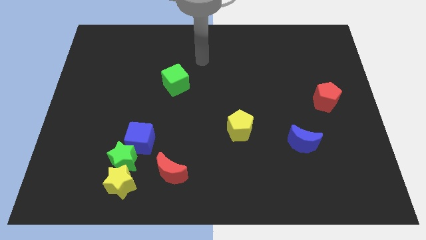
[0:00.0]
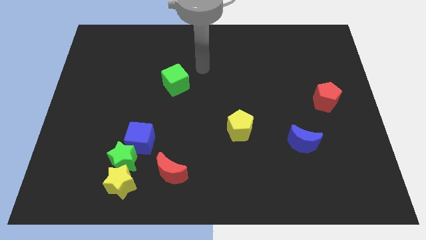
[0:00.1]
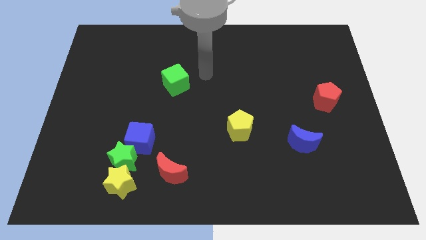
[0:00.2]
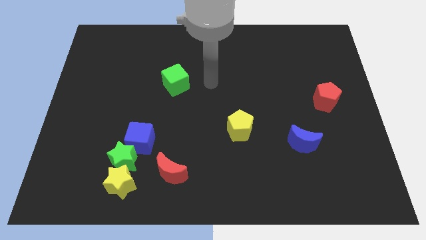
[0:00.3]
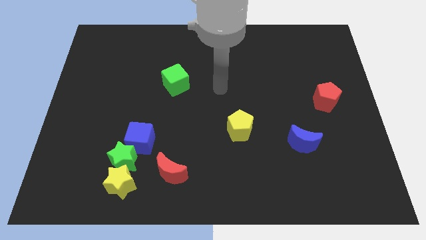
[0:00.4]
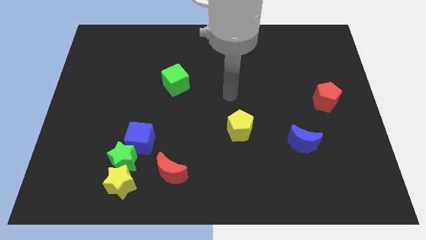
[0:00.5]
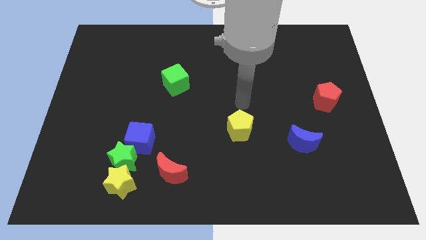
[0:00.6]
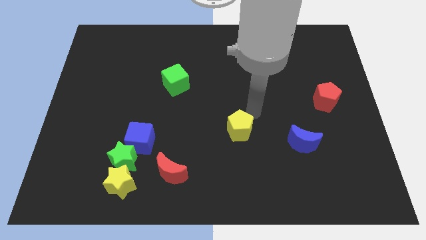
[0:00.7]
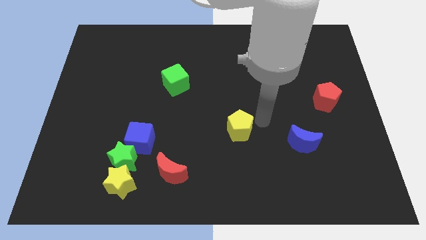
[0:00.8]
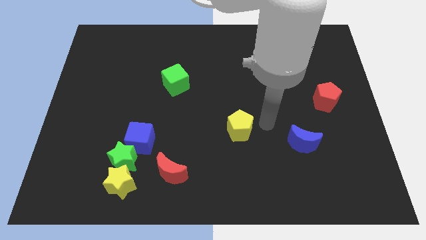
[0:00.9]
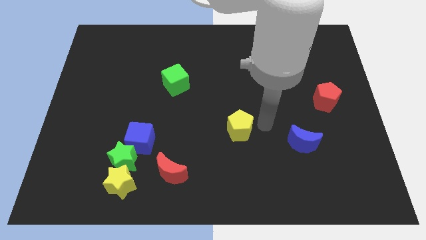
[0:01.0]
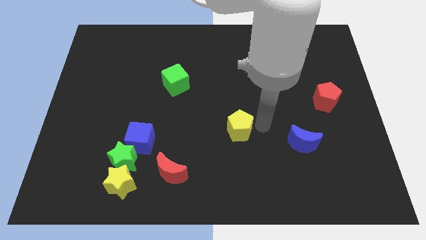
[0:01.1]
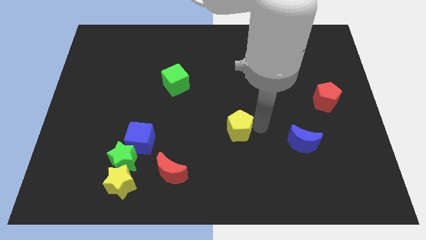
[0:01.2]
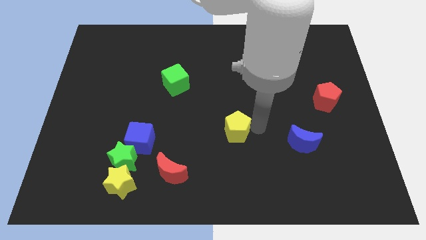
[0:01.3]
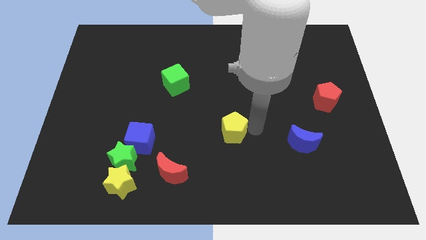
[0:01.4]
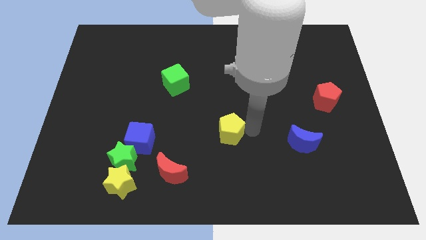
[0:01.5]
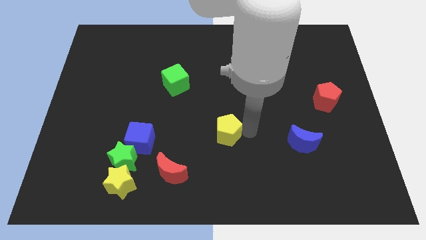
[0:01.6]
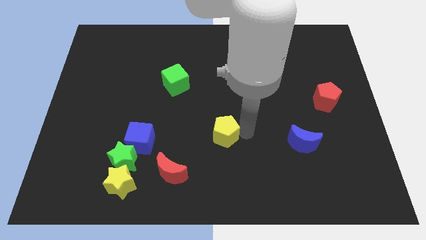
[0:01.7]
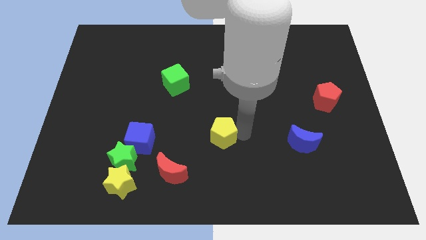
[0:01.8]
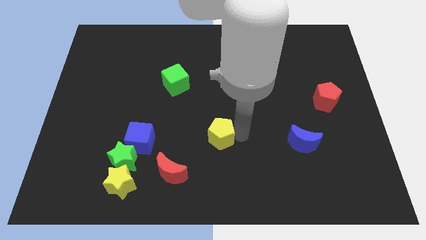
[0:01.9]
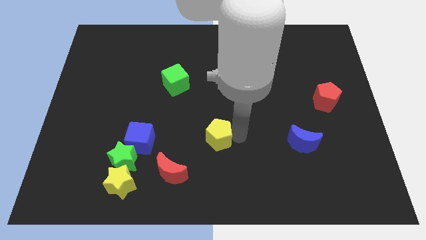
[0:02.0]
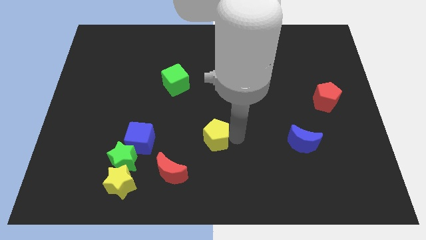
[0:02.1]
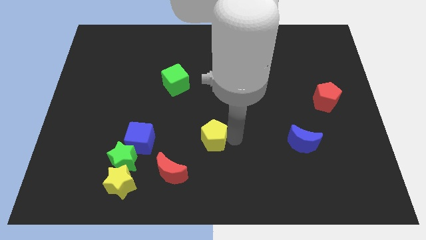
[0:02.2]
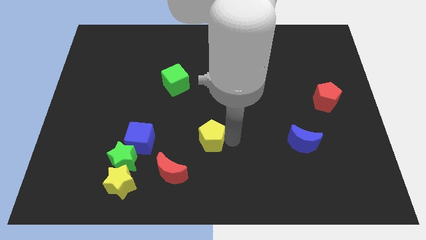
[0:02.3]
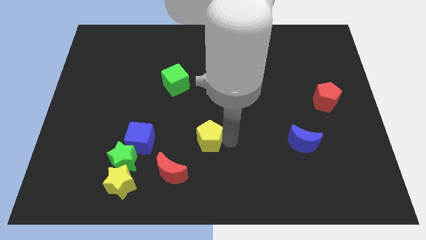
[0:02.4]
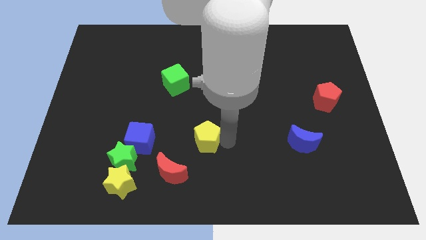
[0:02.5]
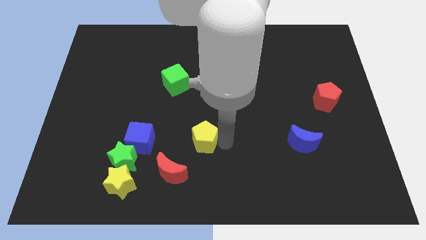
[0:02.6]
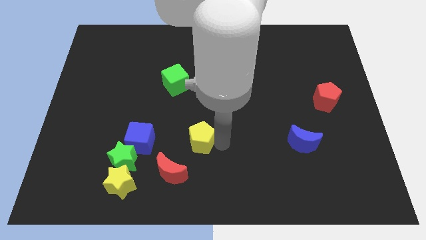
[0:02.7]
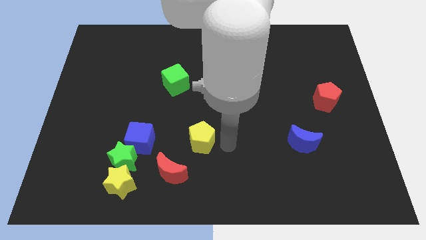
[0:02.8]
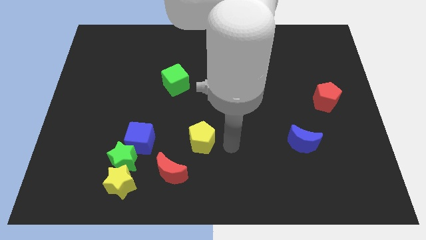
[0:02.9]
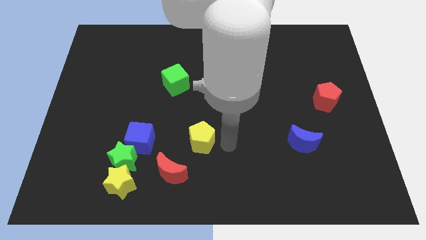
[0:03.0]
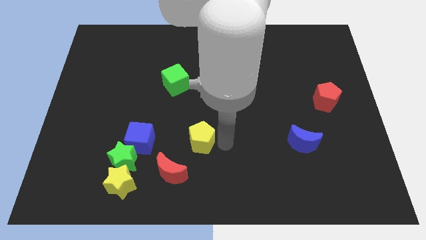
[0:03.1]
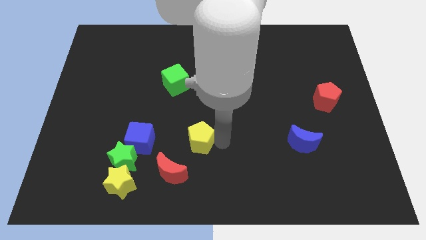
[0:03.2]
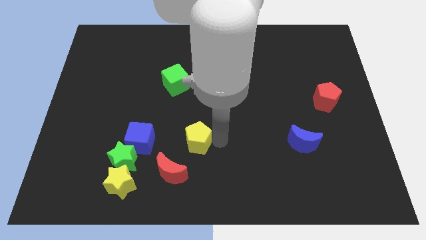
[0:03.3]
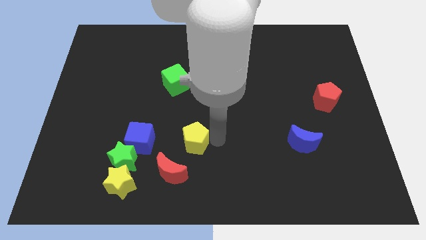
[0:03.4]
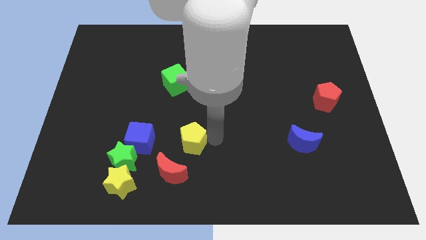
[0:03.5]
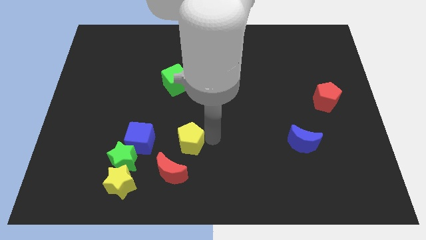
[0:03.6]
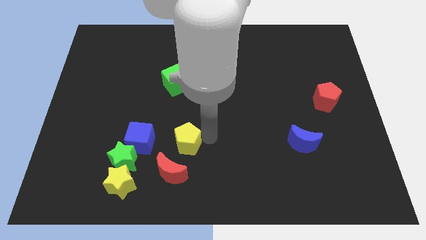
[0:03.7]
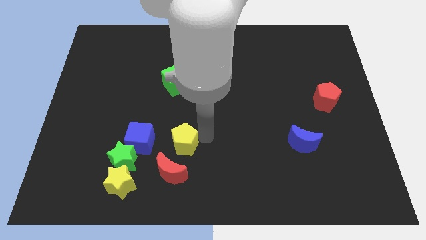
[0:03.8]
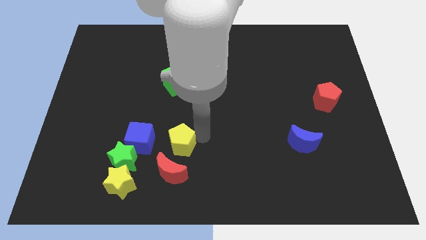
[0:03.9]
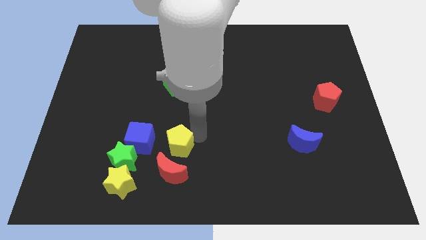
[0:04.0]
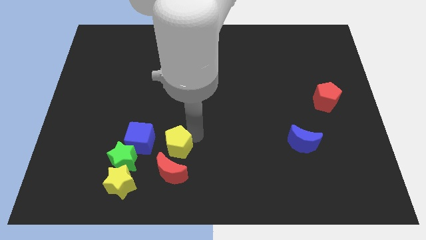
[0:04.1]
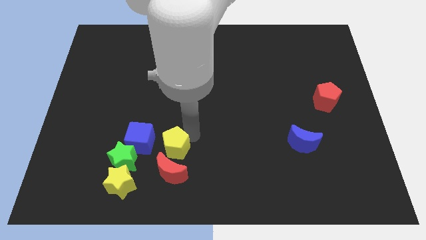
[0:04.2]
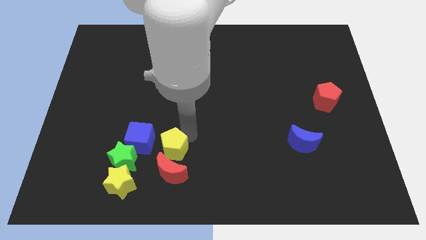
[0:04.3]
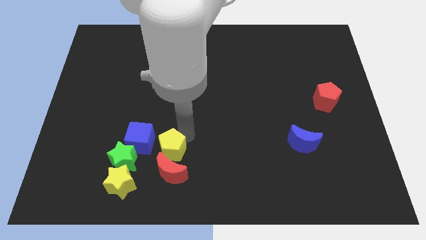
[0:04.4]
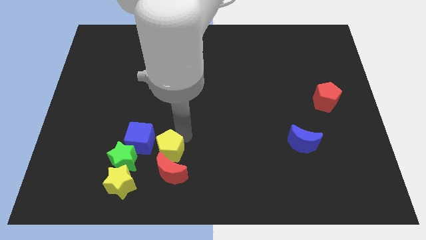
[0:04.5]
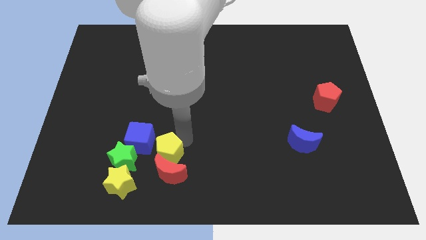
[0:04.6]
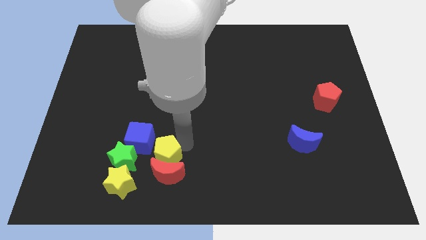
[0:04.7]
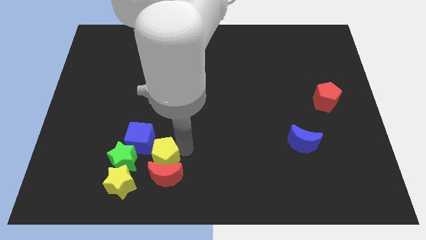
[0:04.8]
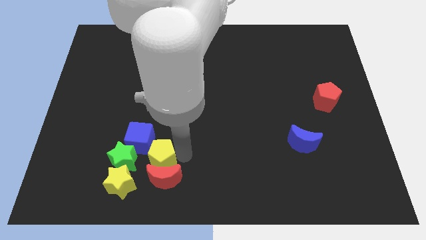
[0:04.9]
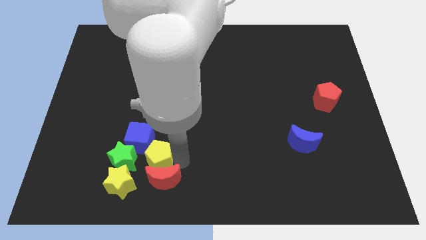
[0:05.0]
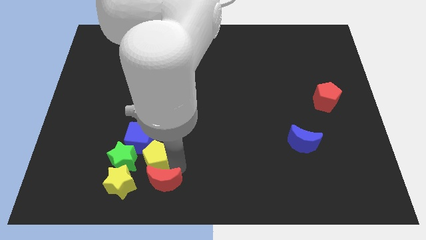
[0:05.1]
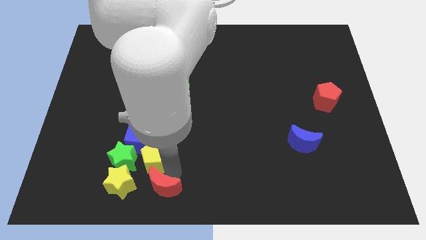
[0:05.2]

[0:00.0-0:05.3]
push the yellow pentagon towards the blue cube

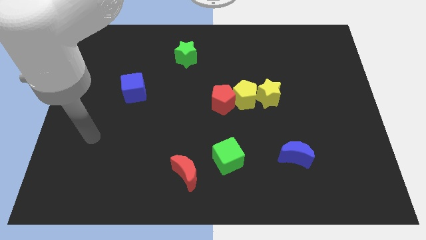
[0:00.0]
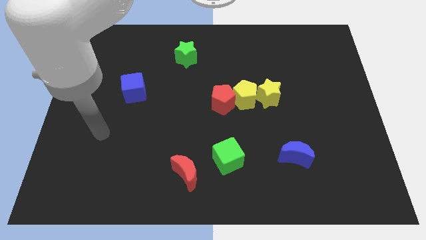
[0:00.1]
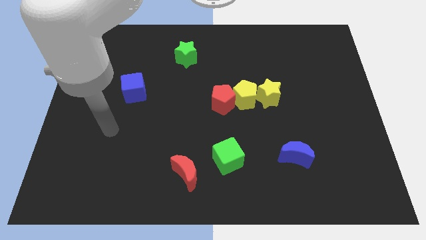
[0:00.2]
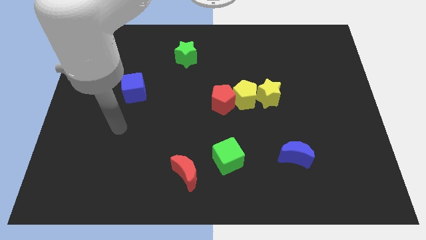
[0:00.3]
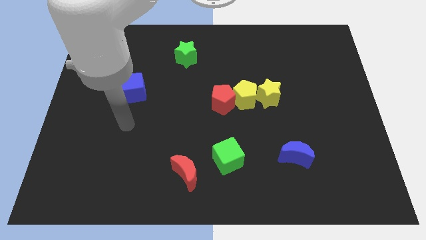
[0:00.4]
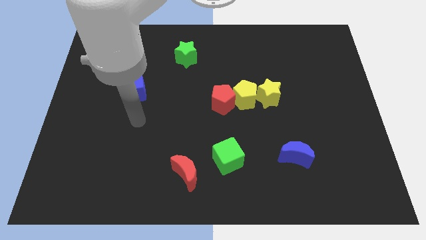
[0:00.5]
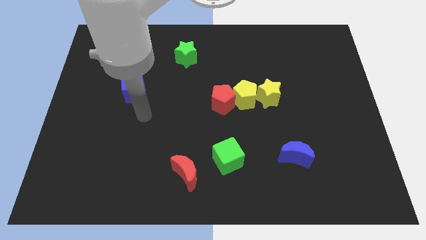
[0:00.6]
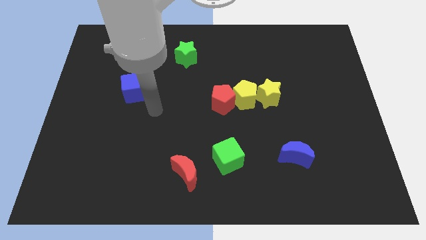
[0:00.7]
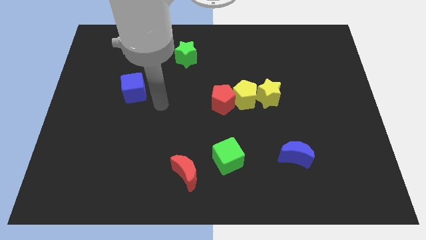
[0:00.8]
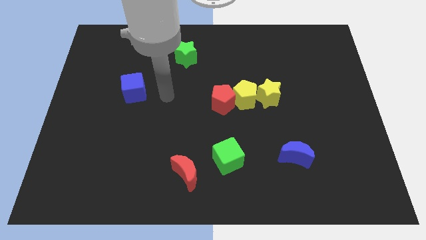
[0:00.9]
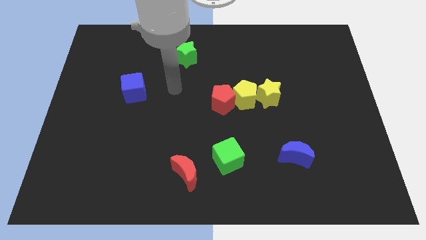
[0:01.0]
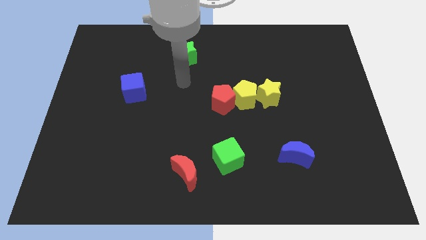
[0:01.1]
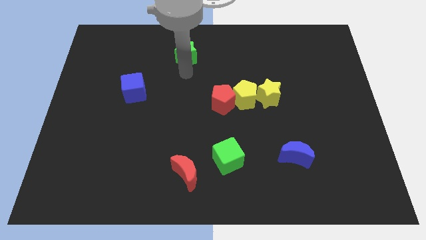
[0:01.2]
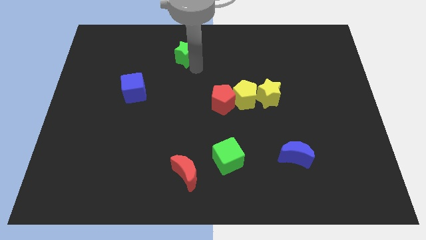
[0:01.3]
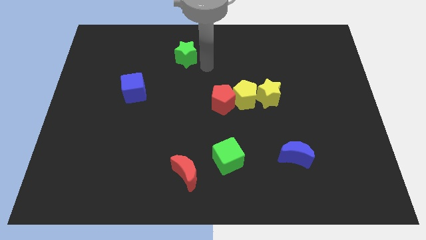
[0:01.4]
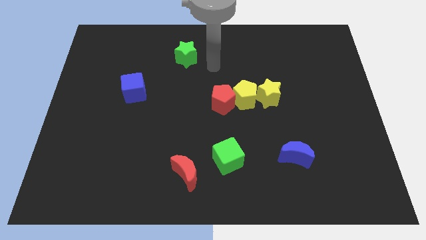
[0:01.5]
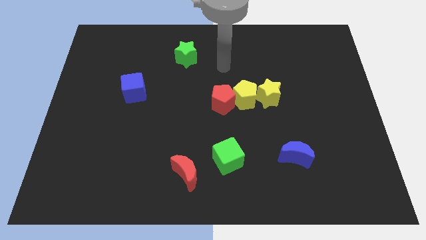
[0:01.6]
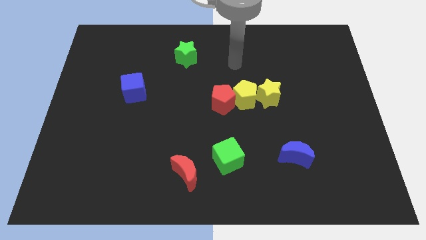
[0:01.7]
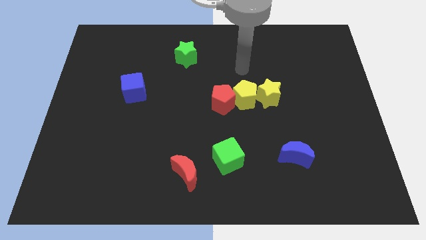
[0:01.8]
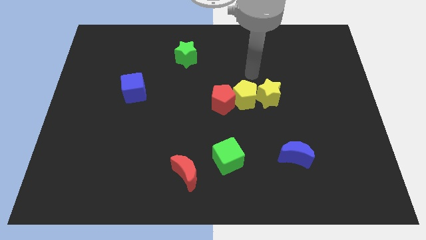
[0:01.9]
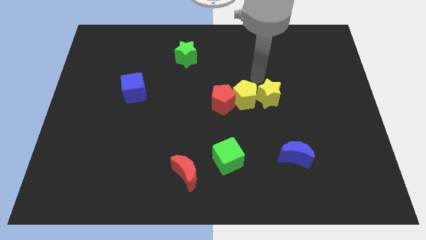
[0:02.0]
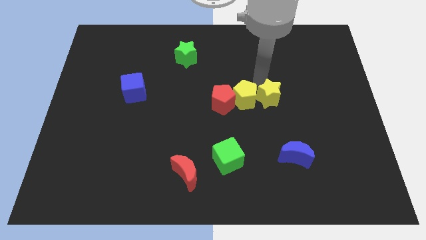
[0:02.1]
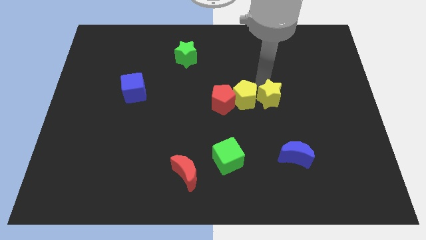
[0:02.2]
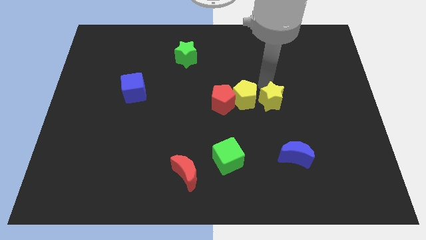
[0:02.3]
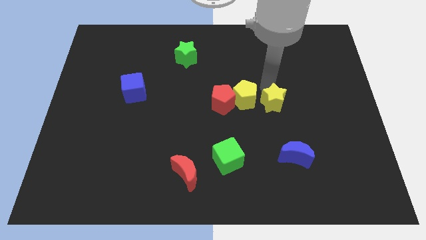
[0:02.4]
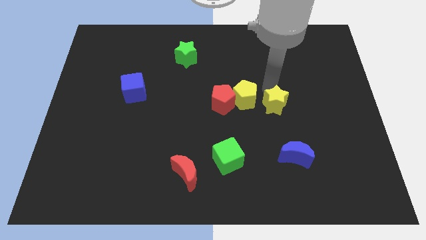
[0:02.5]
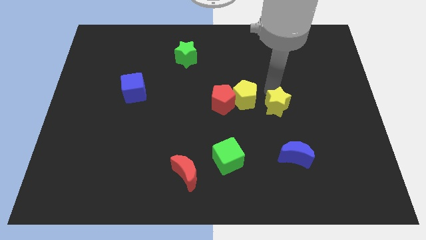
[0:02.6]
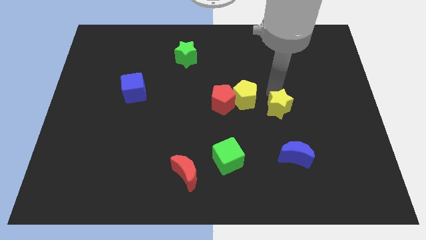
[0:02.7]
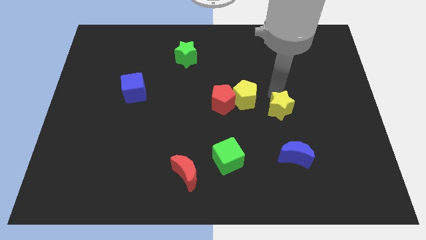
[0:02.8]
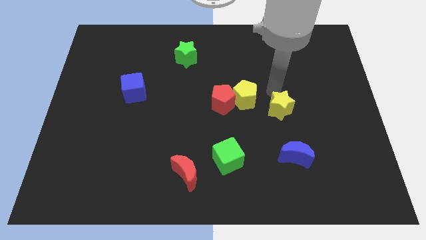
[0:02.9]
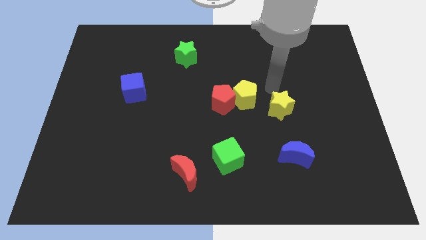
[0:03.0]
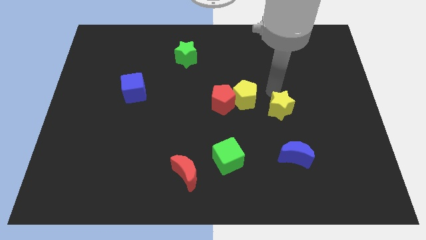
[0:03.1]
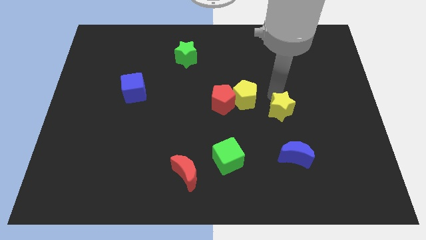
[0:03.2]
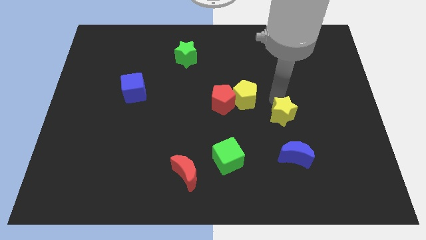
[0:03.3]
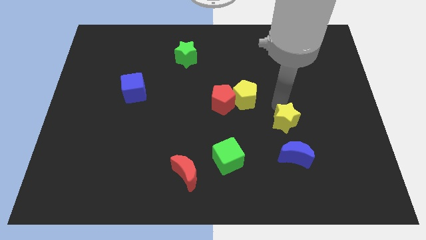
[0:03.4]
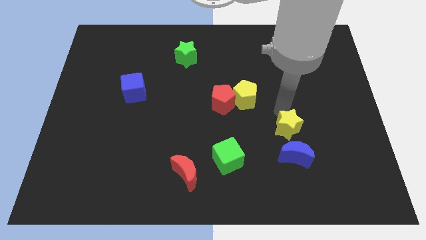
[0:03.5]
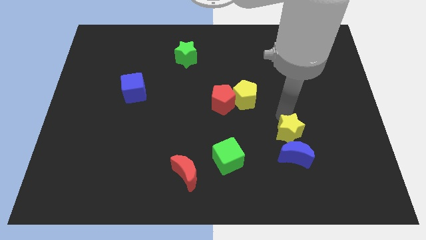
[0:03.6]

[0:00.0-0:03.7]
slide the yellow star to the blue moon
